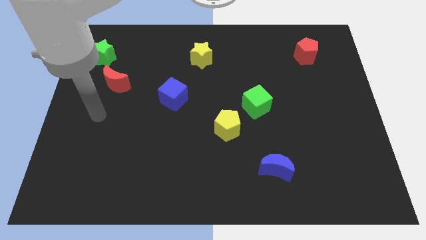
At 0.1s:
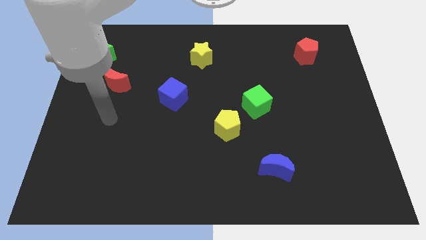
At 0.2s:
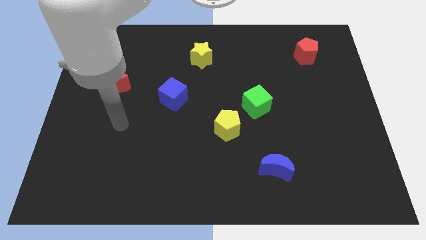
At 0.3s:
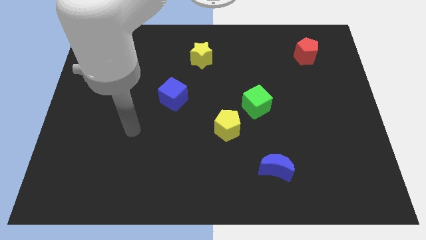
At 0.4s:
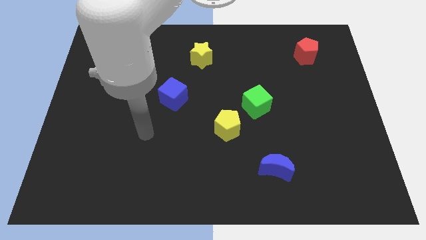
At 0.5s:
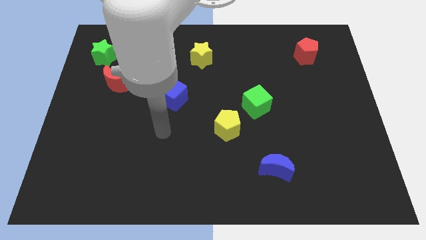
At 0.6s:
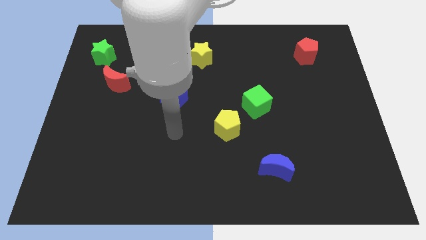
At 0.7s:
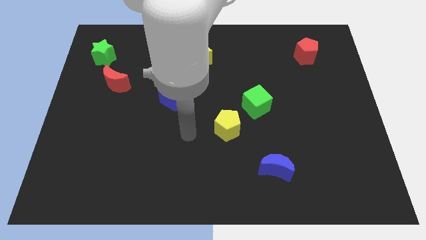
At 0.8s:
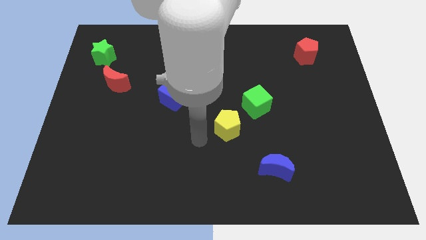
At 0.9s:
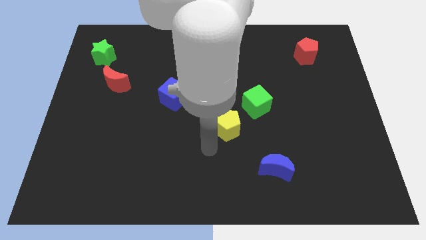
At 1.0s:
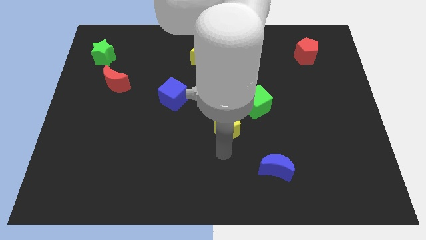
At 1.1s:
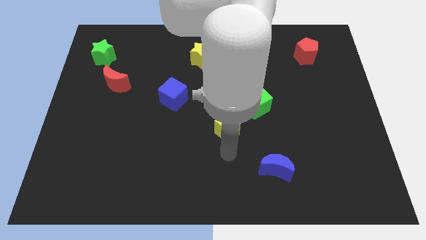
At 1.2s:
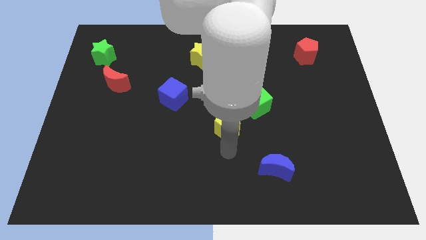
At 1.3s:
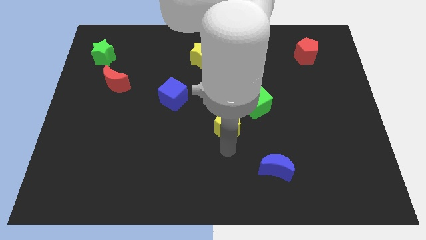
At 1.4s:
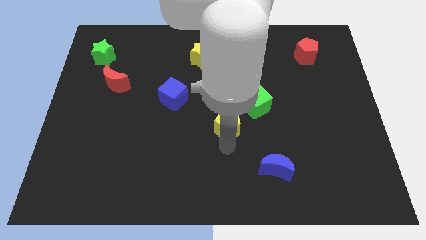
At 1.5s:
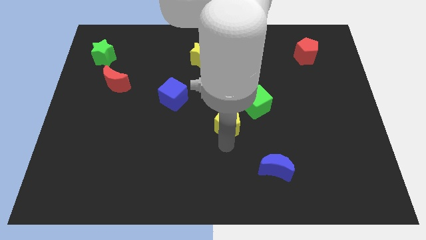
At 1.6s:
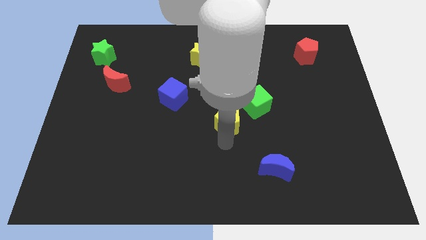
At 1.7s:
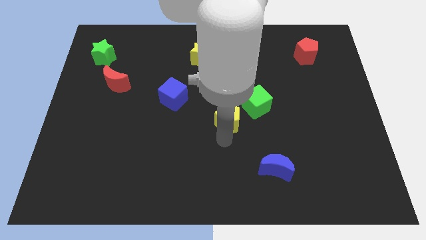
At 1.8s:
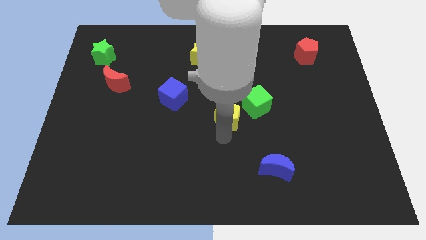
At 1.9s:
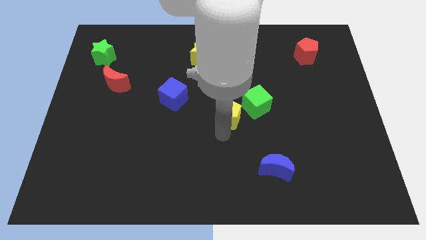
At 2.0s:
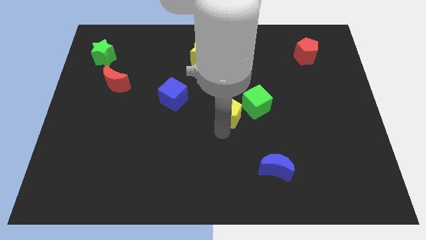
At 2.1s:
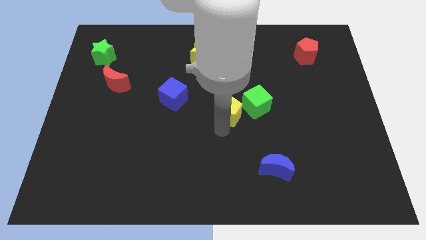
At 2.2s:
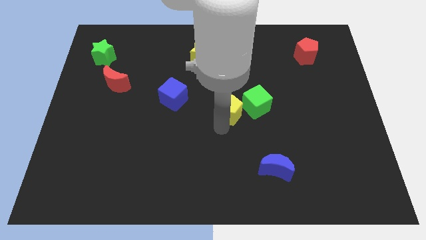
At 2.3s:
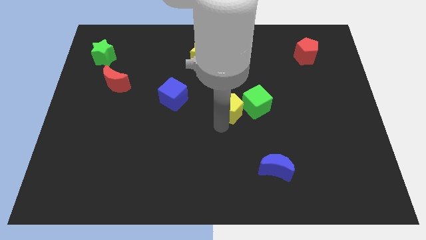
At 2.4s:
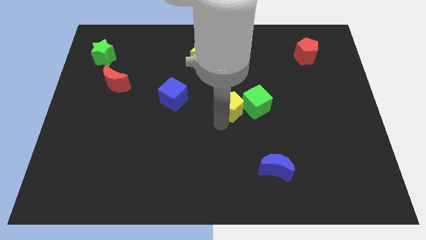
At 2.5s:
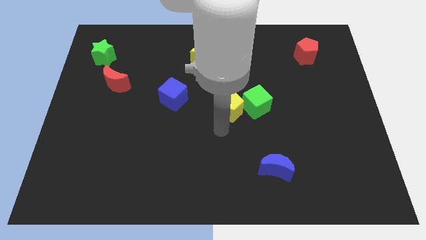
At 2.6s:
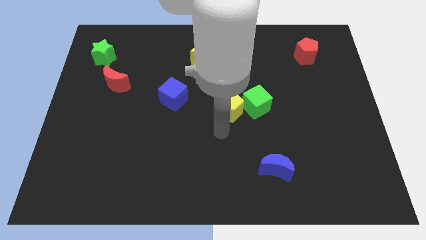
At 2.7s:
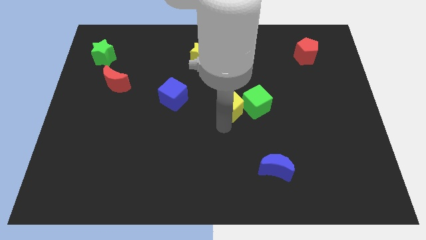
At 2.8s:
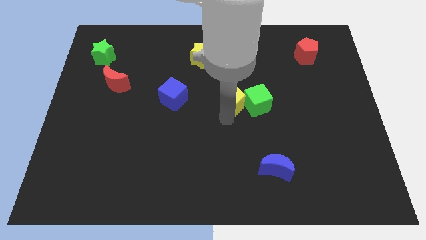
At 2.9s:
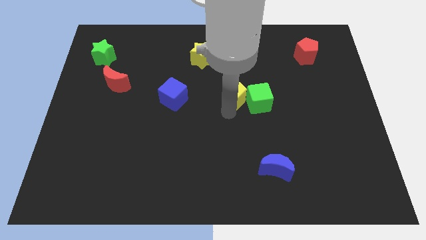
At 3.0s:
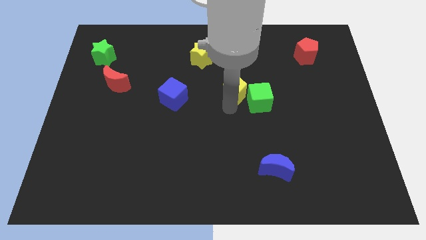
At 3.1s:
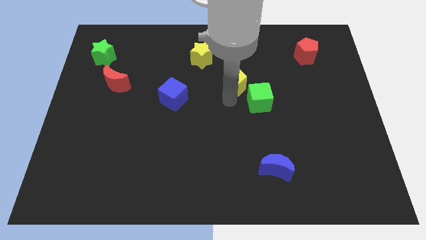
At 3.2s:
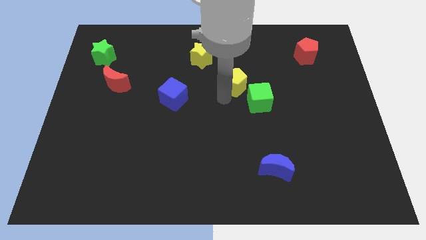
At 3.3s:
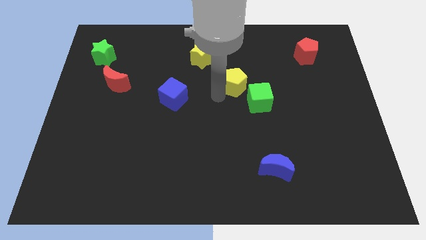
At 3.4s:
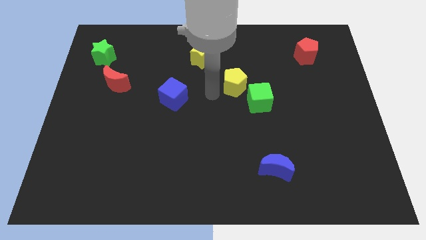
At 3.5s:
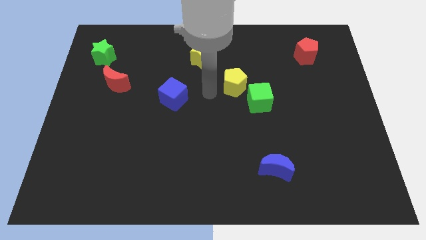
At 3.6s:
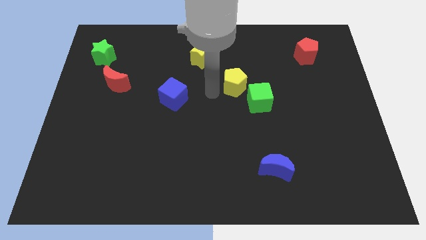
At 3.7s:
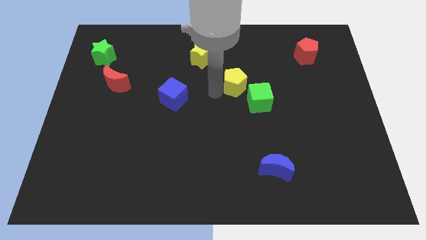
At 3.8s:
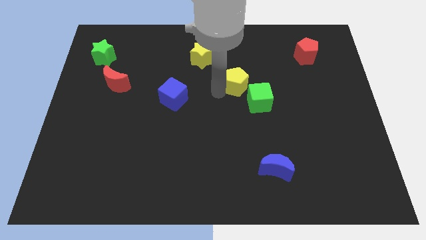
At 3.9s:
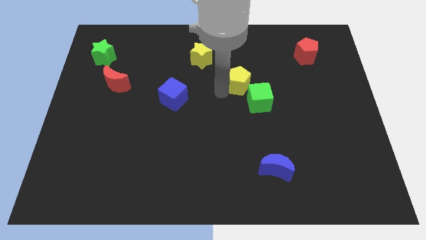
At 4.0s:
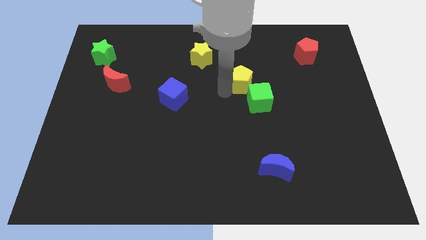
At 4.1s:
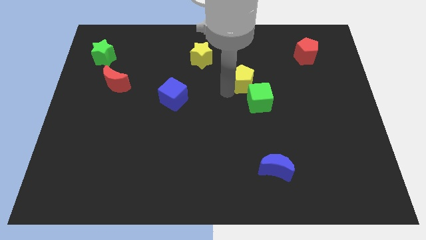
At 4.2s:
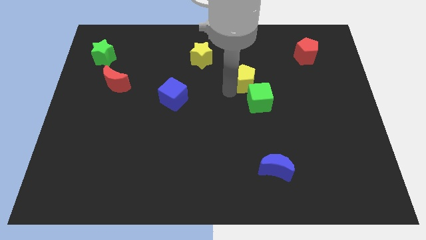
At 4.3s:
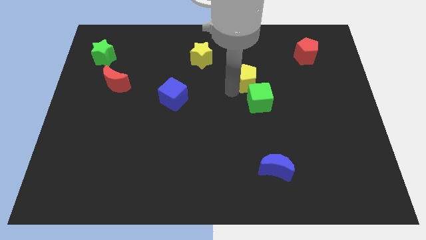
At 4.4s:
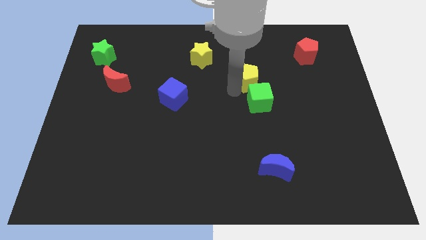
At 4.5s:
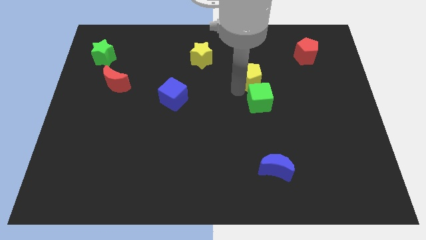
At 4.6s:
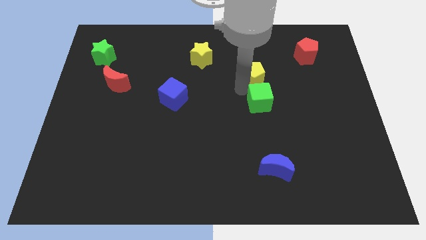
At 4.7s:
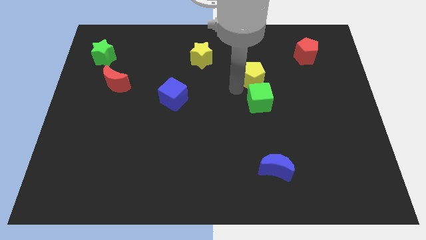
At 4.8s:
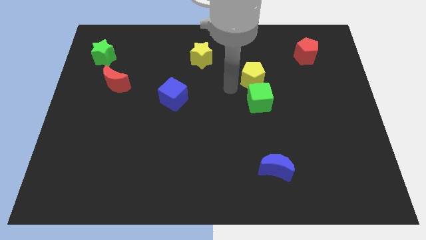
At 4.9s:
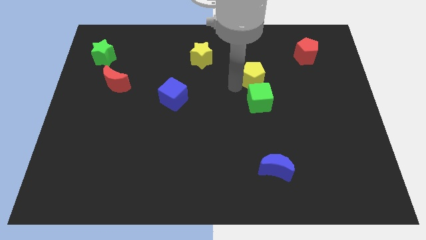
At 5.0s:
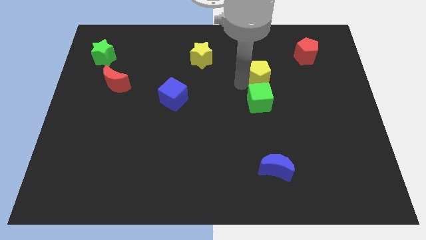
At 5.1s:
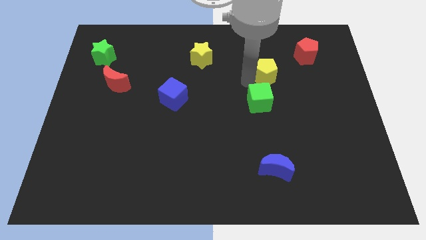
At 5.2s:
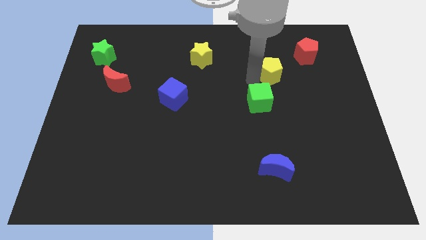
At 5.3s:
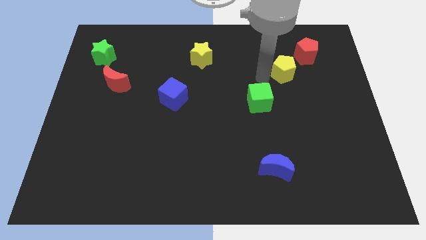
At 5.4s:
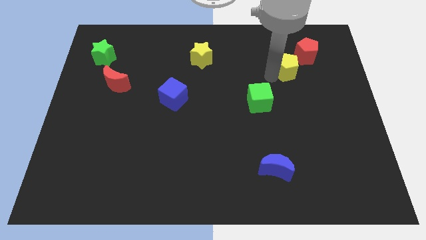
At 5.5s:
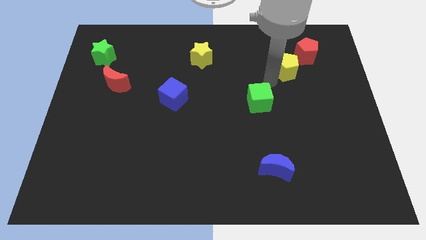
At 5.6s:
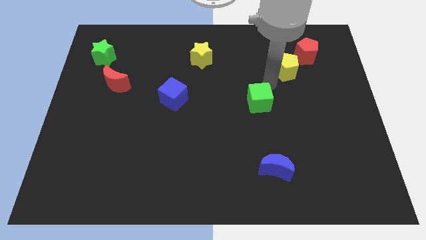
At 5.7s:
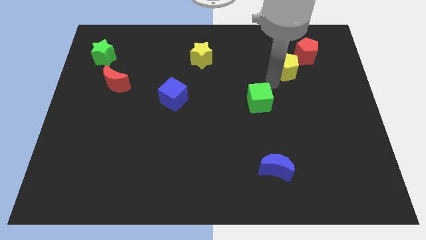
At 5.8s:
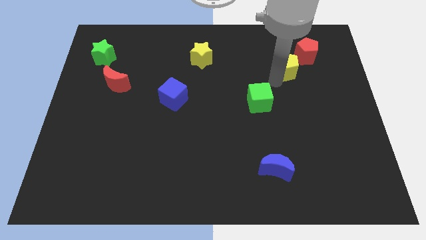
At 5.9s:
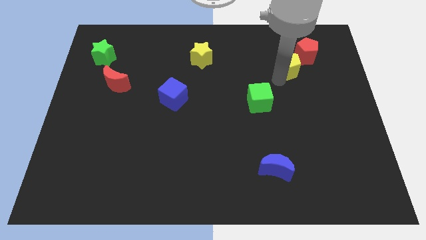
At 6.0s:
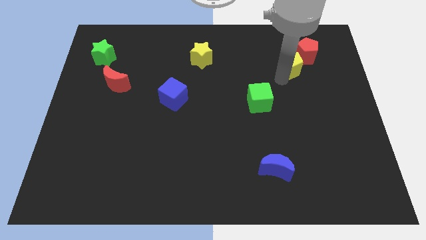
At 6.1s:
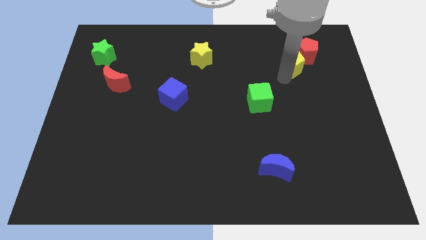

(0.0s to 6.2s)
put the yellow pentagon next to the red pentagon
